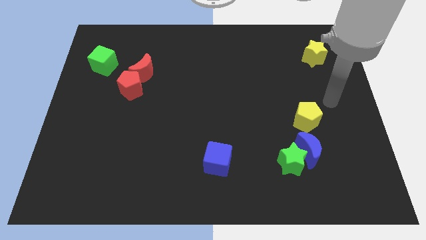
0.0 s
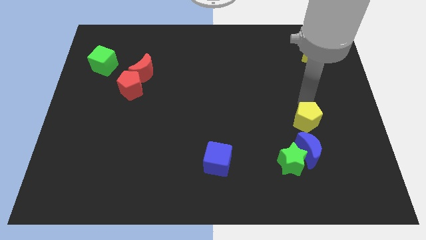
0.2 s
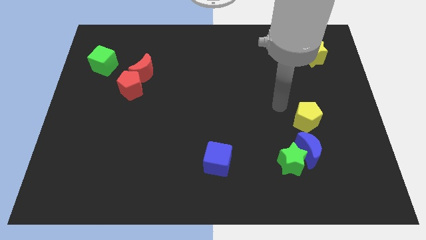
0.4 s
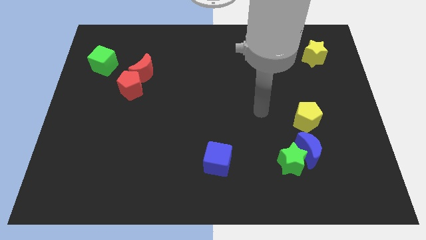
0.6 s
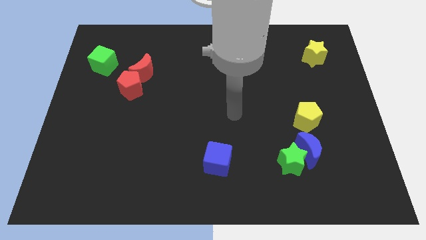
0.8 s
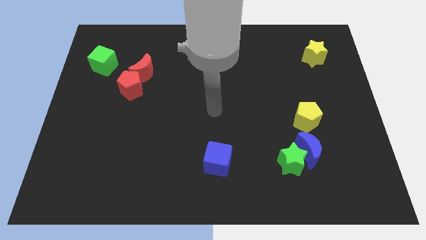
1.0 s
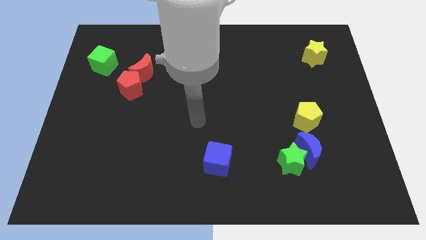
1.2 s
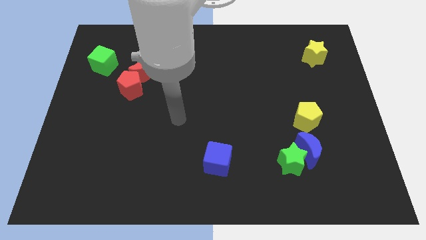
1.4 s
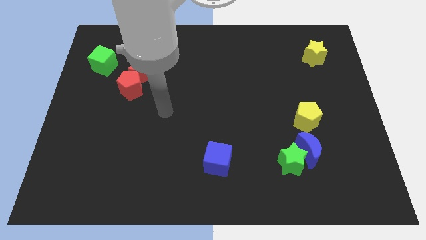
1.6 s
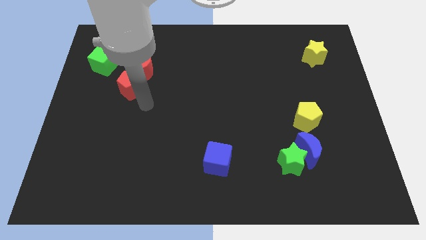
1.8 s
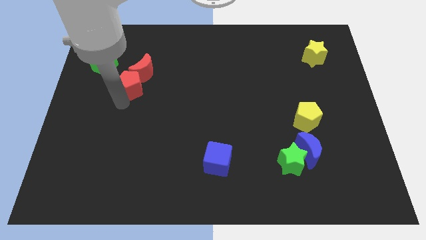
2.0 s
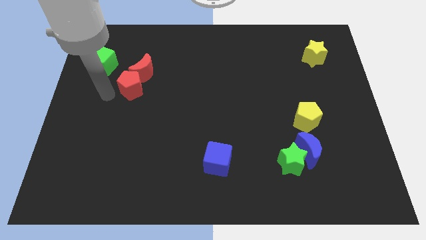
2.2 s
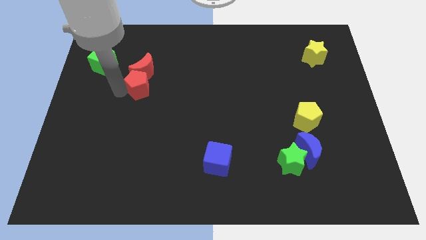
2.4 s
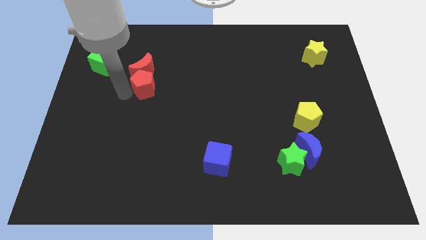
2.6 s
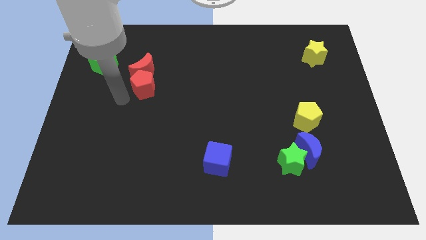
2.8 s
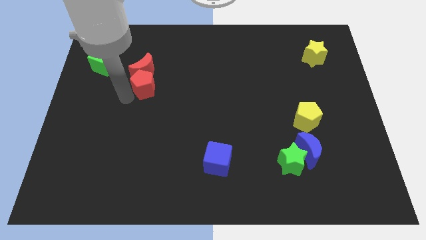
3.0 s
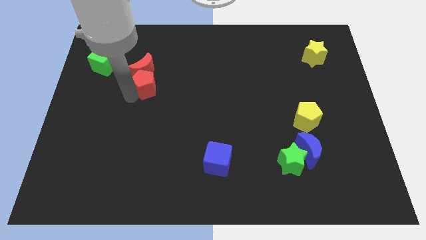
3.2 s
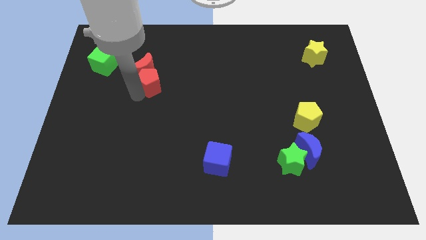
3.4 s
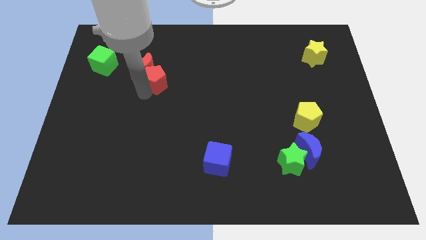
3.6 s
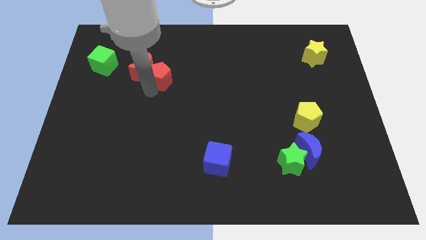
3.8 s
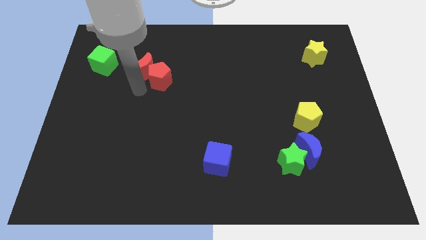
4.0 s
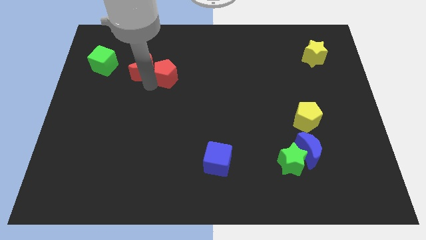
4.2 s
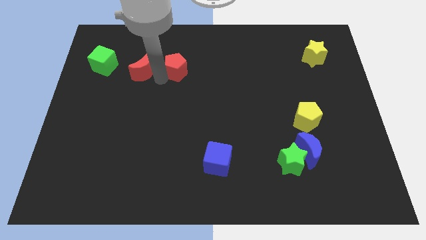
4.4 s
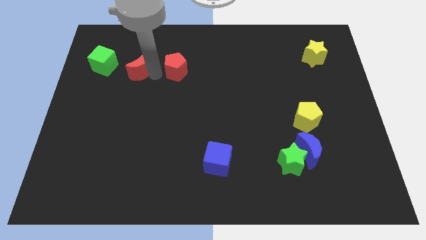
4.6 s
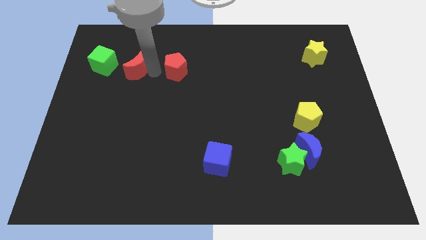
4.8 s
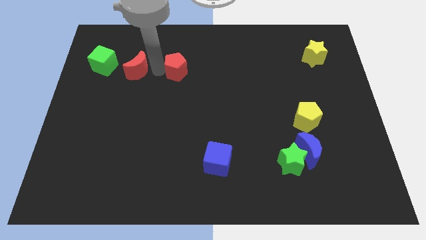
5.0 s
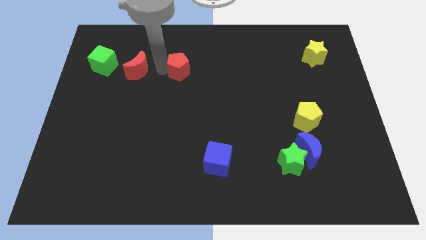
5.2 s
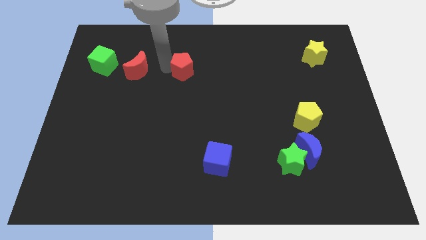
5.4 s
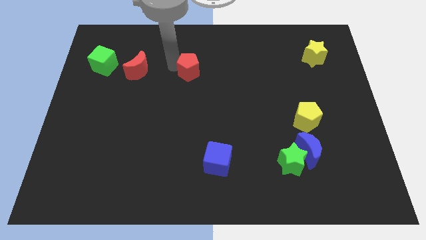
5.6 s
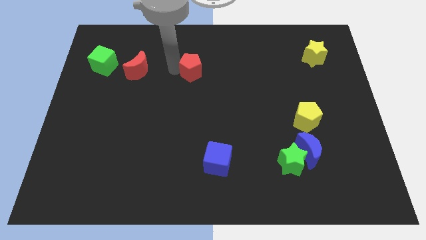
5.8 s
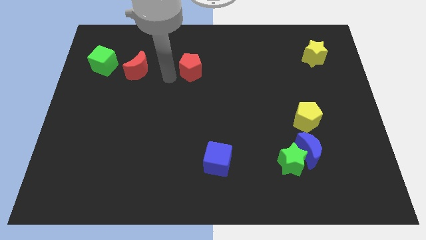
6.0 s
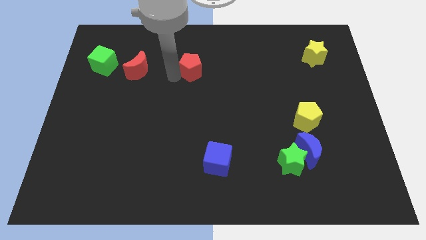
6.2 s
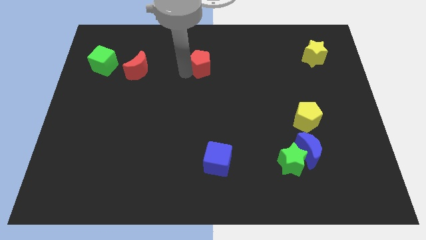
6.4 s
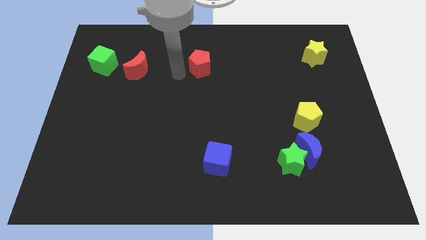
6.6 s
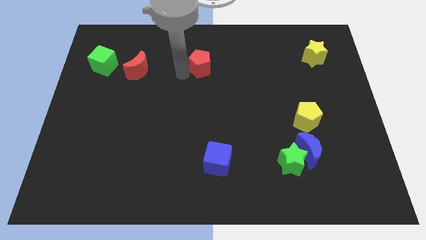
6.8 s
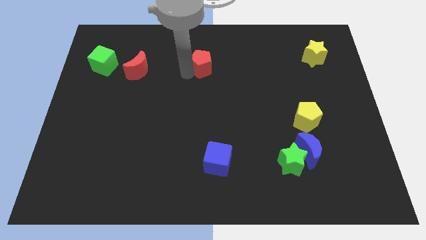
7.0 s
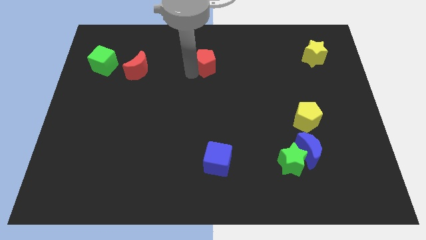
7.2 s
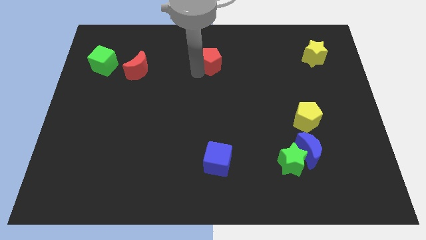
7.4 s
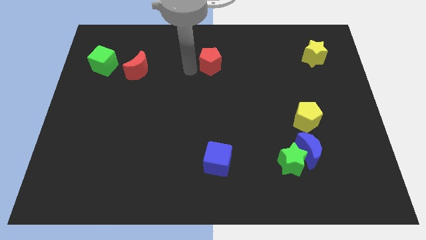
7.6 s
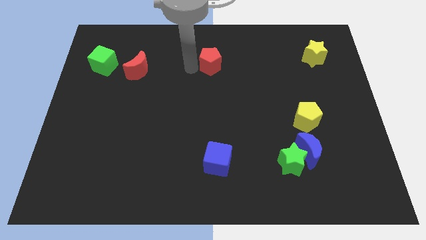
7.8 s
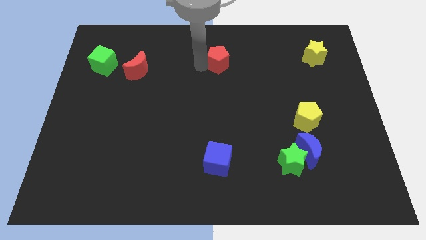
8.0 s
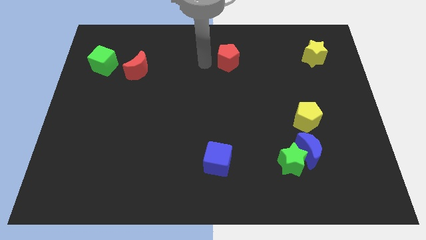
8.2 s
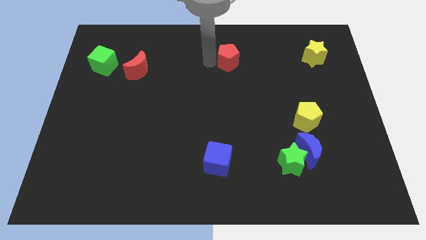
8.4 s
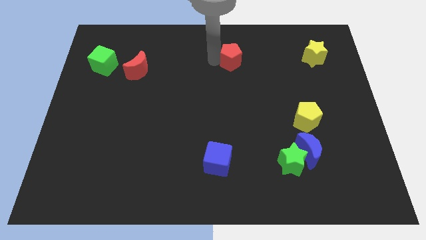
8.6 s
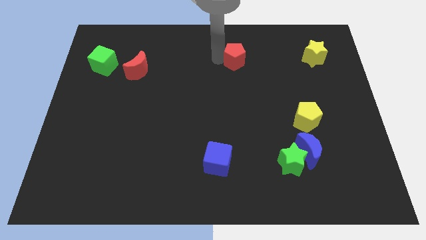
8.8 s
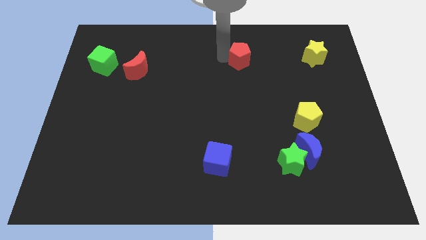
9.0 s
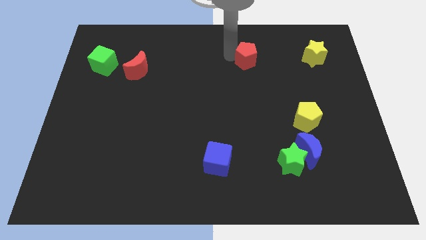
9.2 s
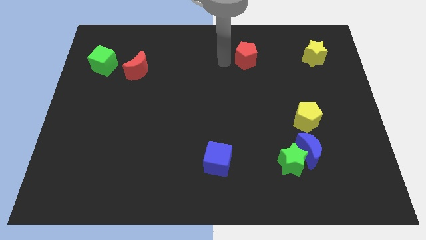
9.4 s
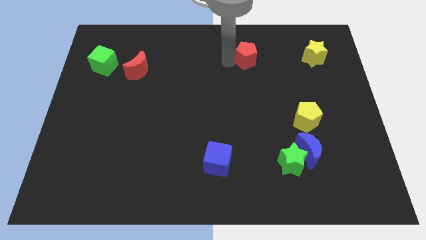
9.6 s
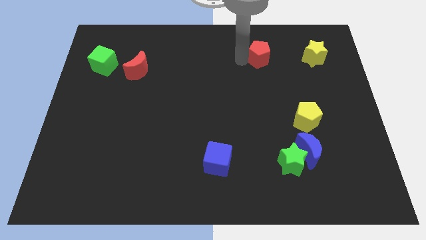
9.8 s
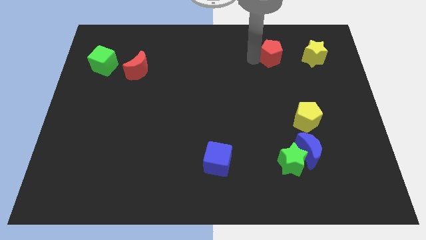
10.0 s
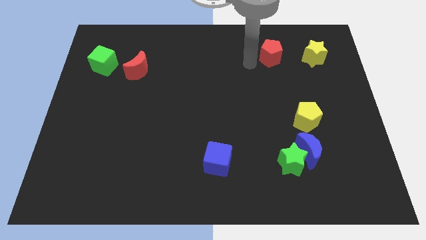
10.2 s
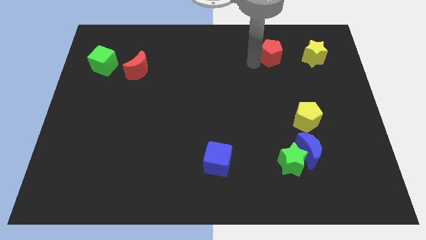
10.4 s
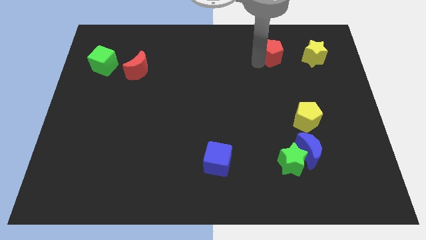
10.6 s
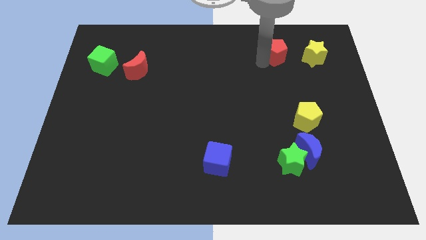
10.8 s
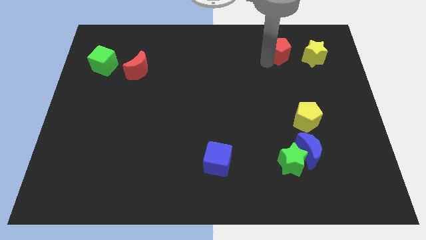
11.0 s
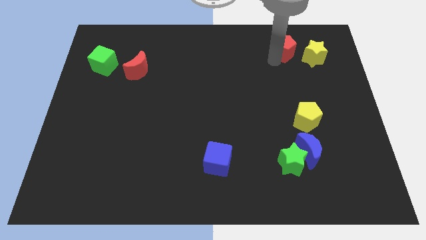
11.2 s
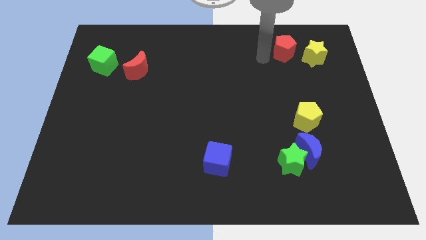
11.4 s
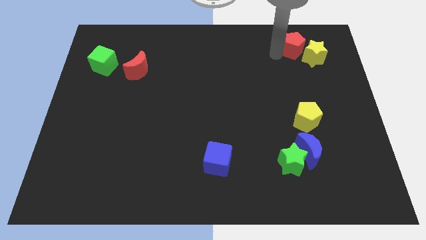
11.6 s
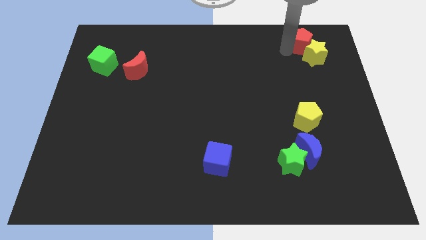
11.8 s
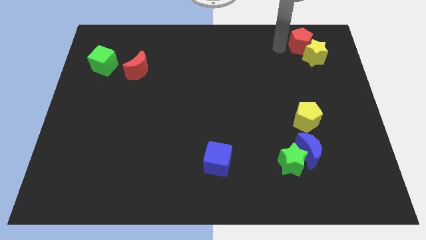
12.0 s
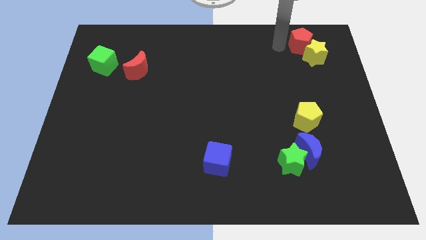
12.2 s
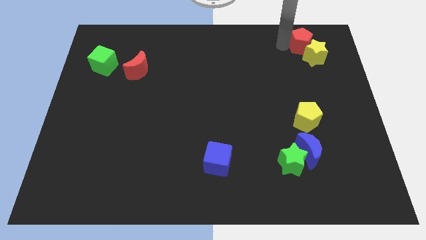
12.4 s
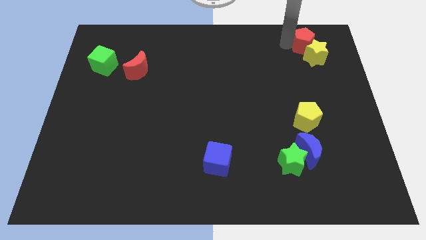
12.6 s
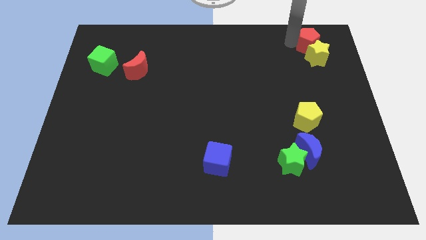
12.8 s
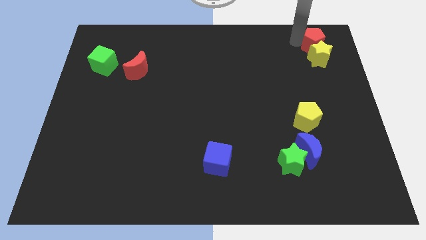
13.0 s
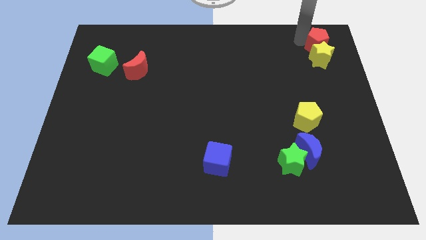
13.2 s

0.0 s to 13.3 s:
push the red pentagon to the top right of the board
